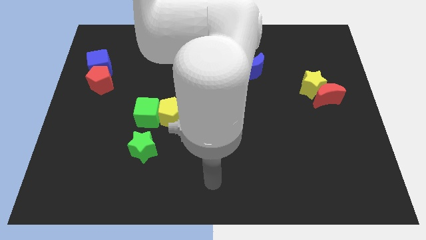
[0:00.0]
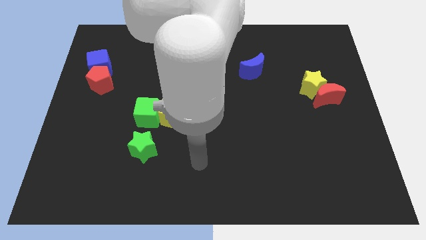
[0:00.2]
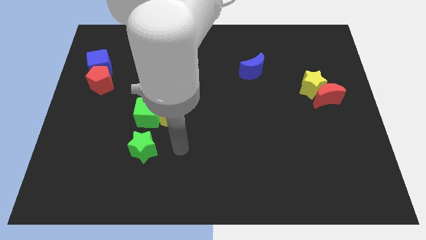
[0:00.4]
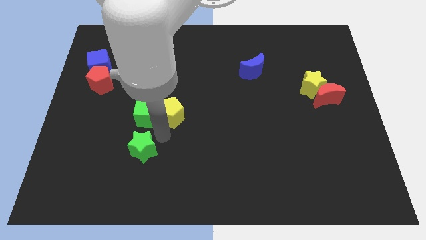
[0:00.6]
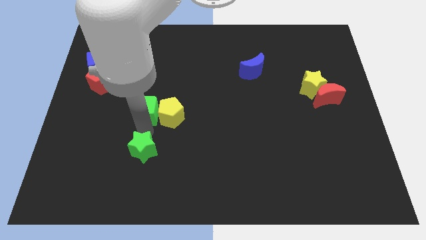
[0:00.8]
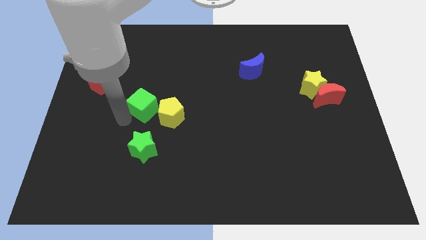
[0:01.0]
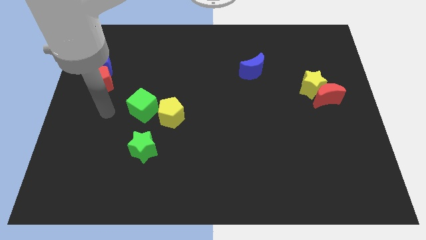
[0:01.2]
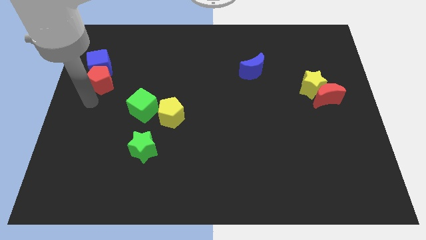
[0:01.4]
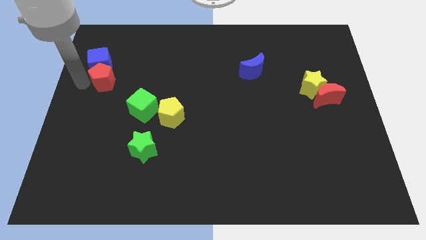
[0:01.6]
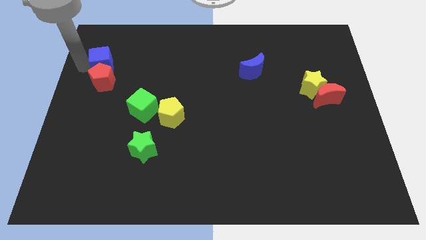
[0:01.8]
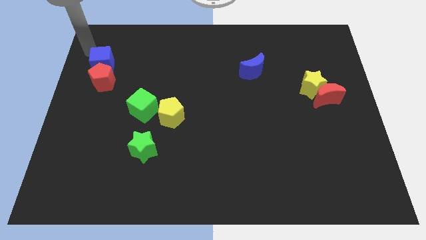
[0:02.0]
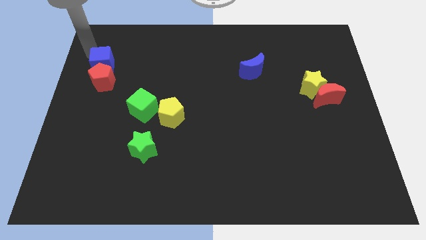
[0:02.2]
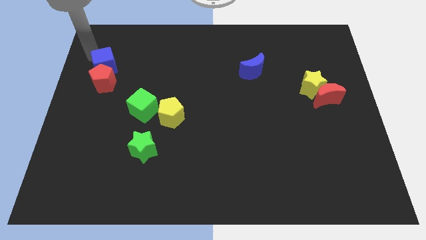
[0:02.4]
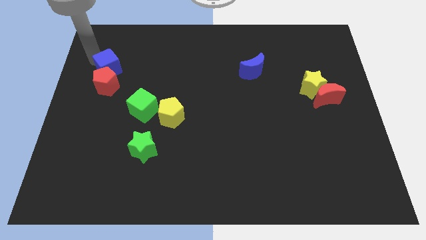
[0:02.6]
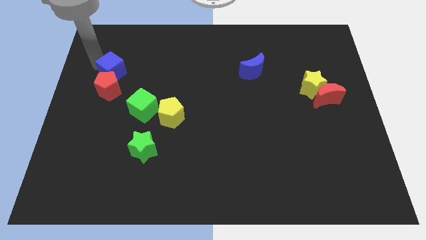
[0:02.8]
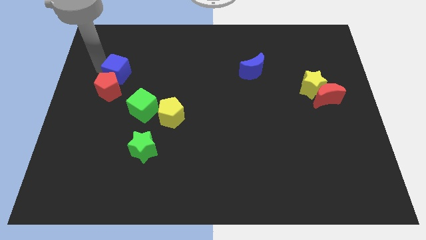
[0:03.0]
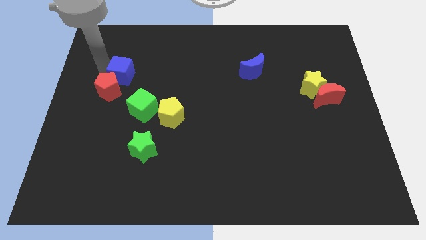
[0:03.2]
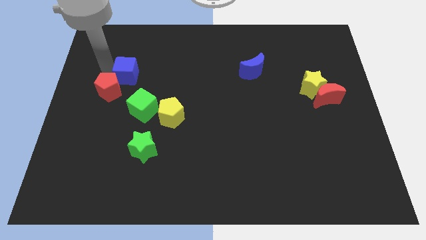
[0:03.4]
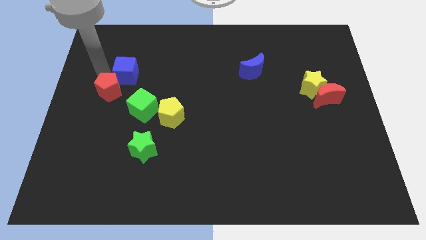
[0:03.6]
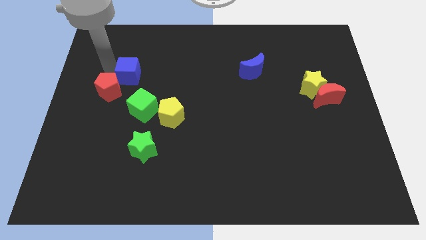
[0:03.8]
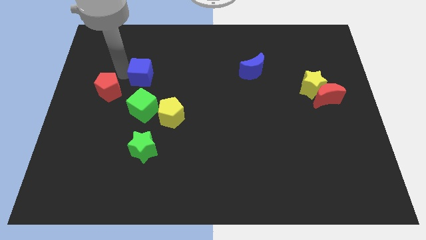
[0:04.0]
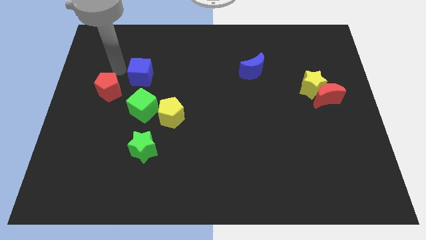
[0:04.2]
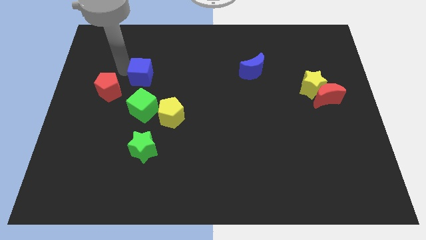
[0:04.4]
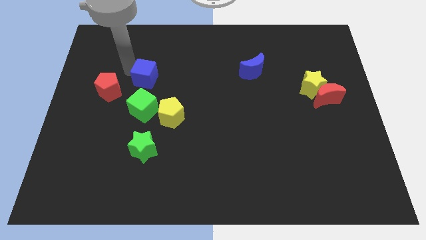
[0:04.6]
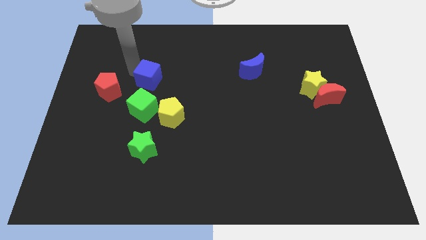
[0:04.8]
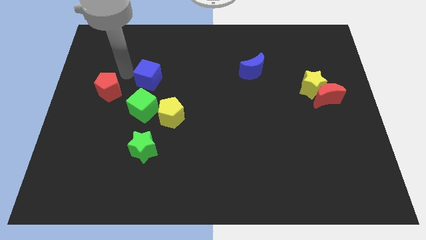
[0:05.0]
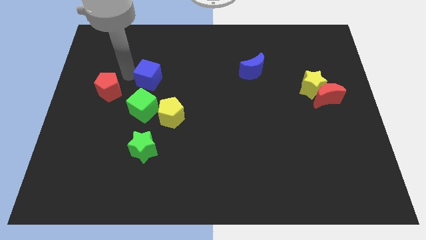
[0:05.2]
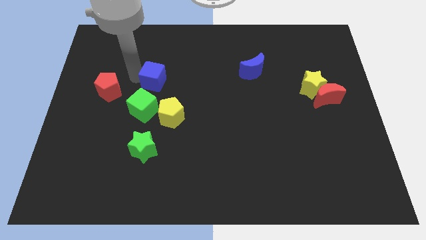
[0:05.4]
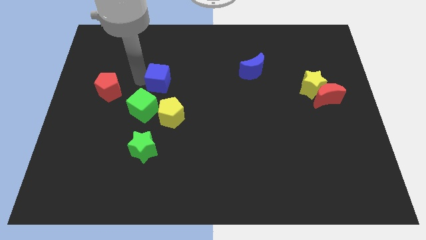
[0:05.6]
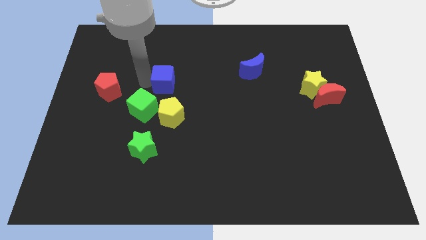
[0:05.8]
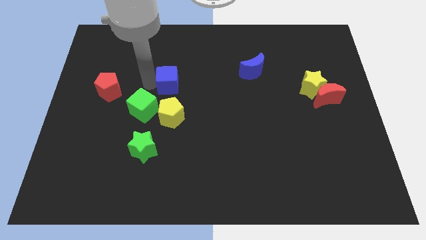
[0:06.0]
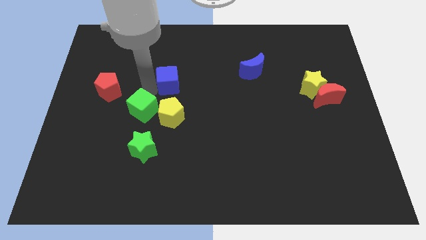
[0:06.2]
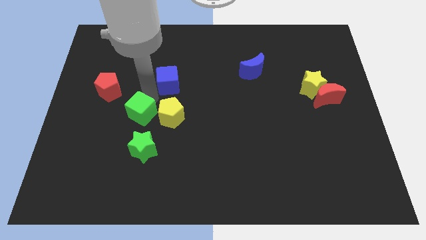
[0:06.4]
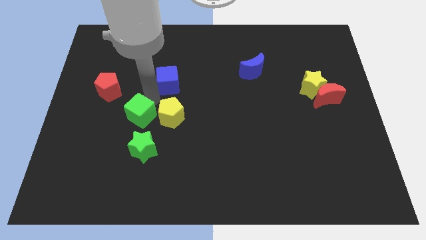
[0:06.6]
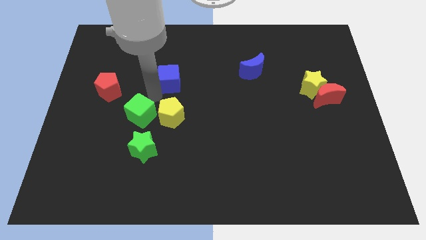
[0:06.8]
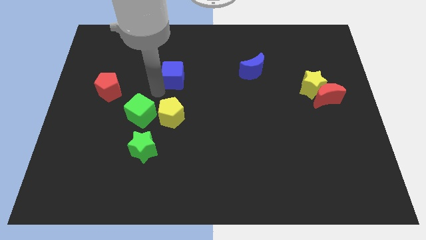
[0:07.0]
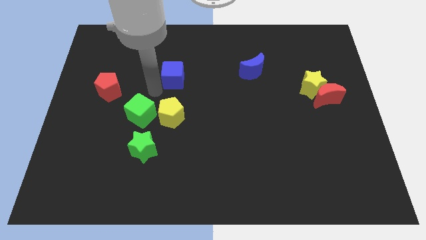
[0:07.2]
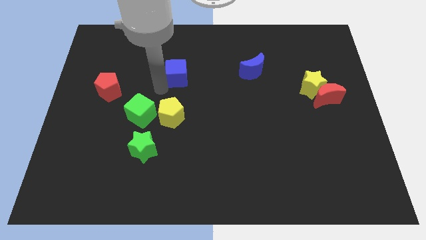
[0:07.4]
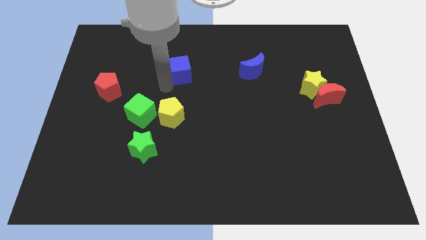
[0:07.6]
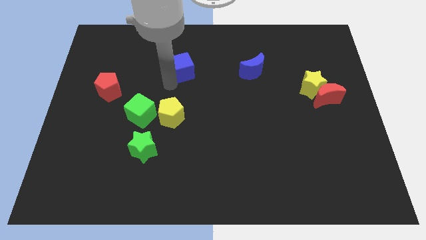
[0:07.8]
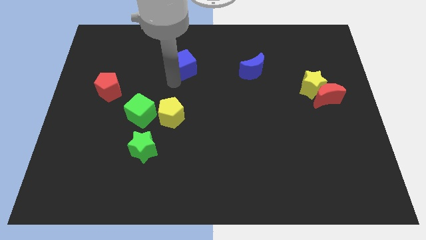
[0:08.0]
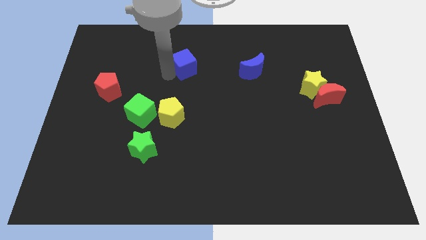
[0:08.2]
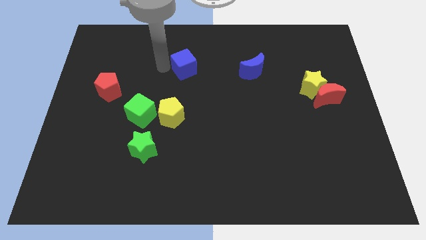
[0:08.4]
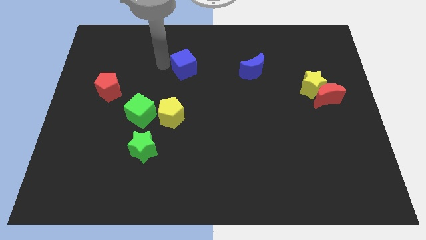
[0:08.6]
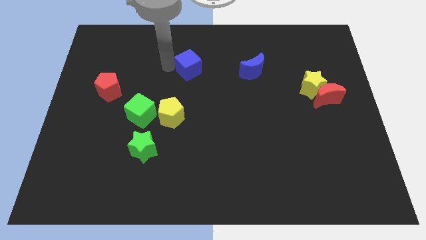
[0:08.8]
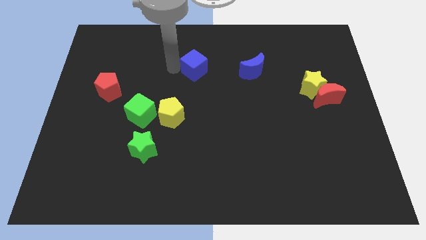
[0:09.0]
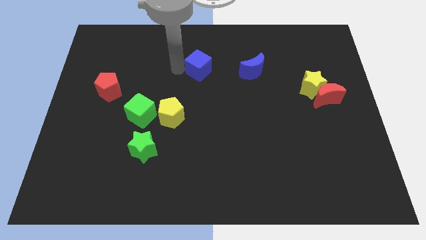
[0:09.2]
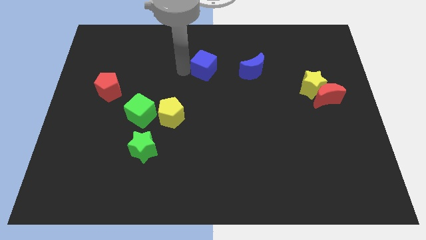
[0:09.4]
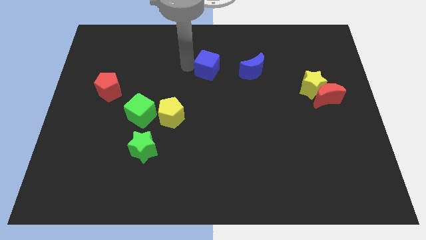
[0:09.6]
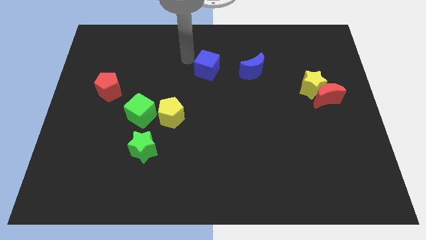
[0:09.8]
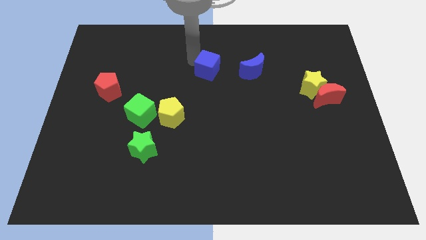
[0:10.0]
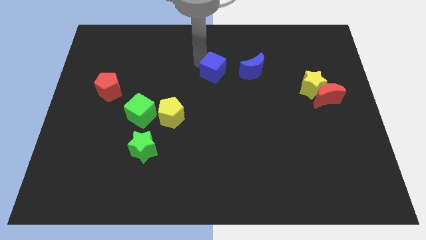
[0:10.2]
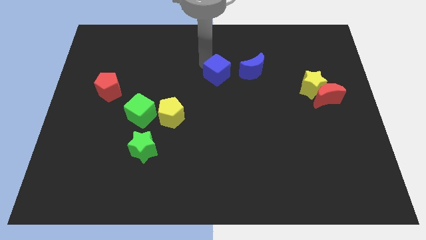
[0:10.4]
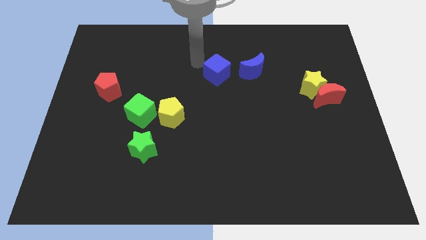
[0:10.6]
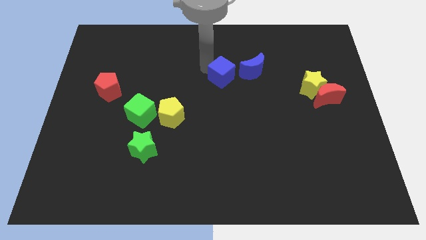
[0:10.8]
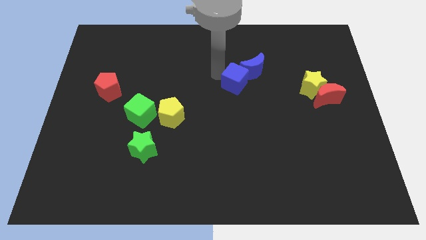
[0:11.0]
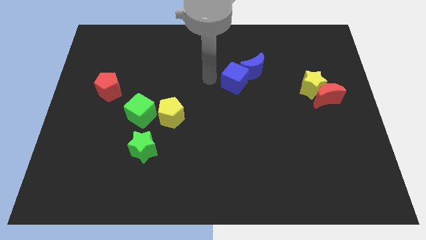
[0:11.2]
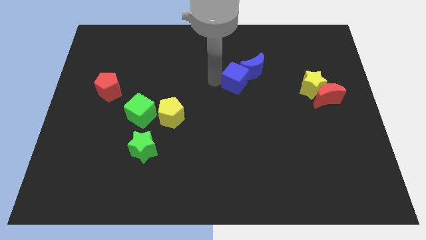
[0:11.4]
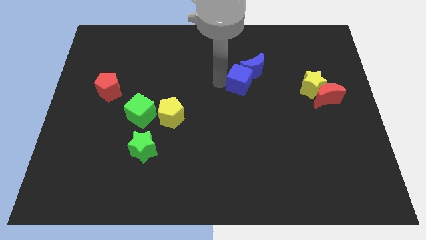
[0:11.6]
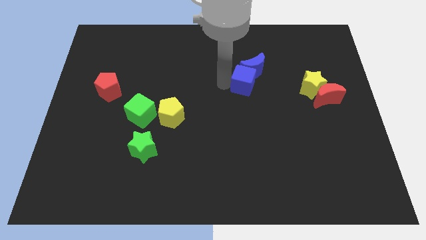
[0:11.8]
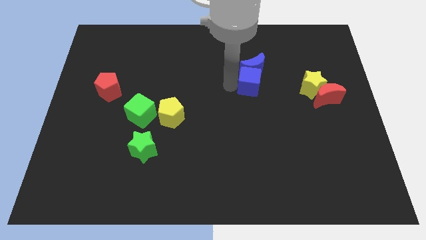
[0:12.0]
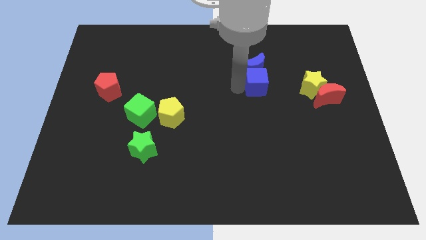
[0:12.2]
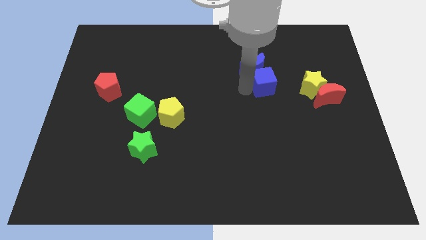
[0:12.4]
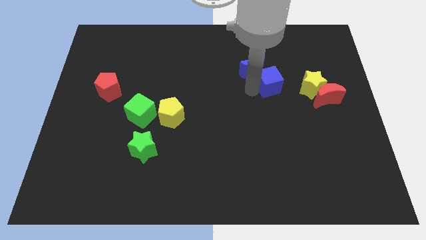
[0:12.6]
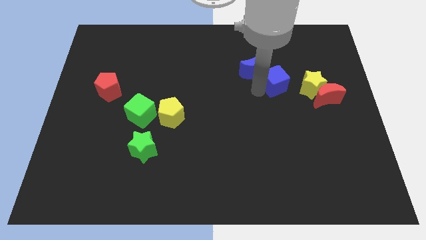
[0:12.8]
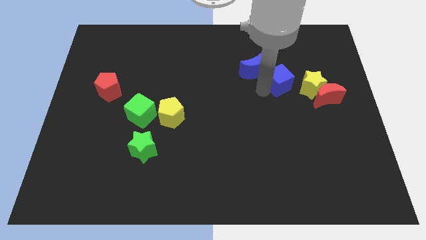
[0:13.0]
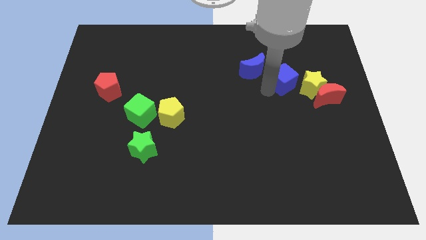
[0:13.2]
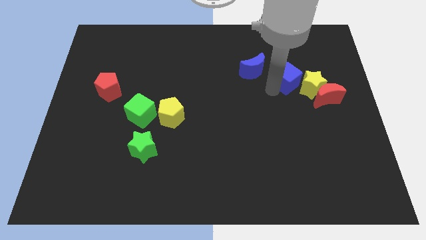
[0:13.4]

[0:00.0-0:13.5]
push the blue cube to the yellow star
